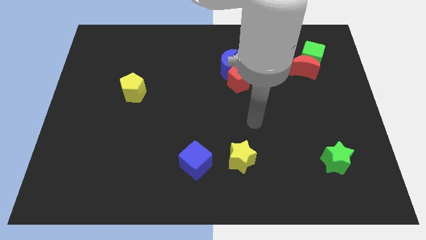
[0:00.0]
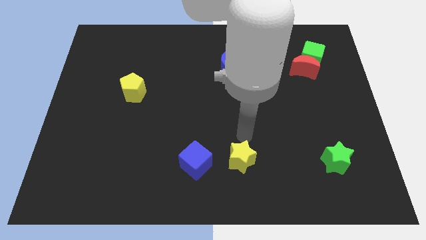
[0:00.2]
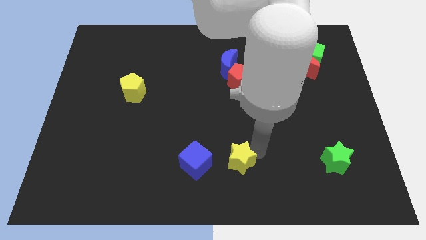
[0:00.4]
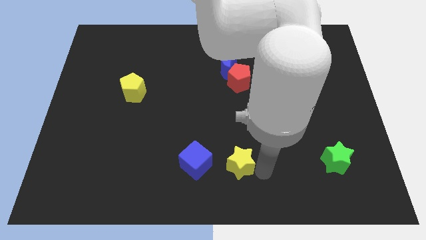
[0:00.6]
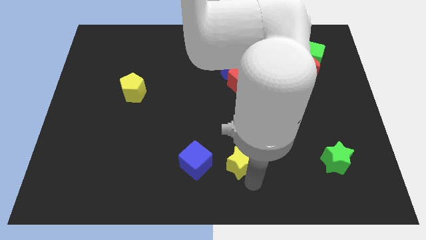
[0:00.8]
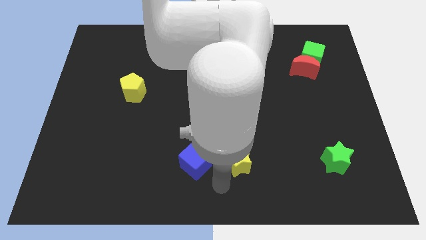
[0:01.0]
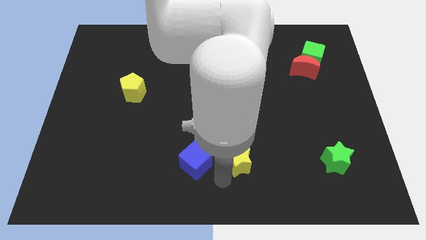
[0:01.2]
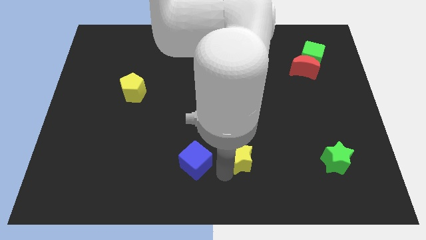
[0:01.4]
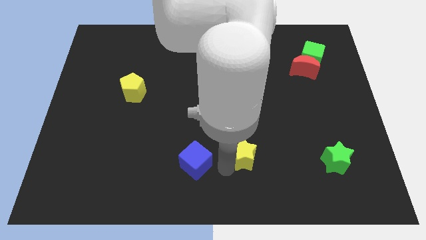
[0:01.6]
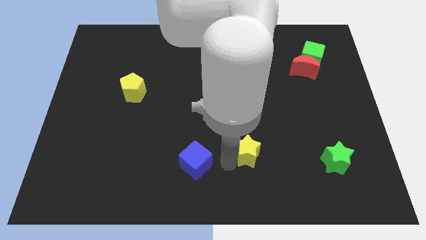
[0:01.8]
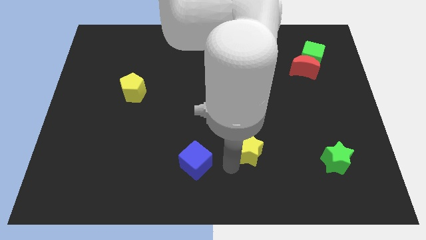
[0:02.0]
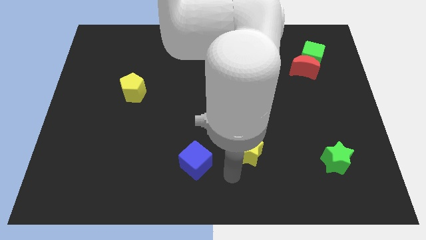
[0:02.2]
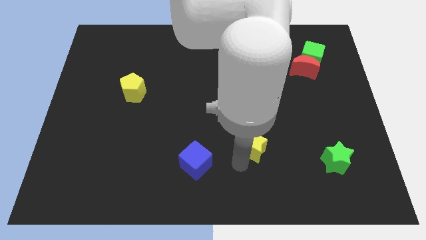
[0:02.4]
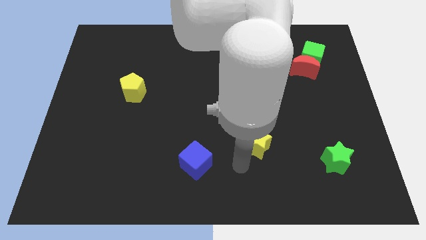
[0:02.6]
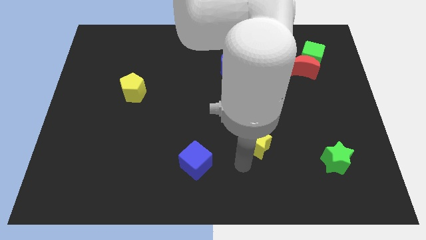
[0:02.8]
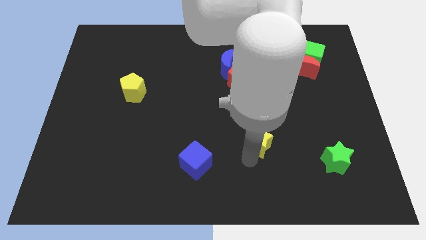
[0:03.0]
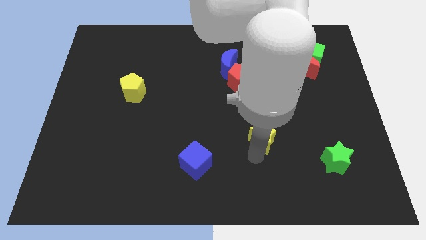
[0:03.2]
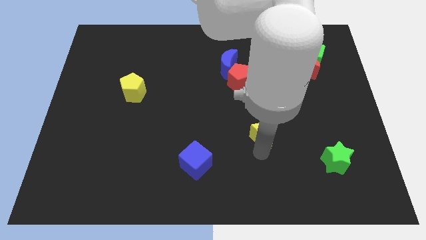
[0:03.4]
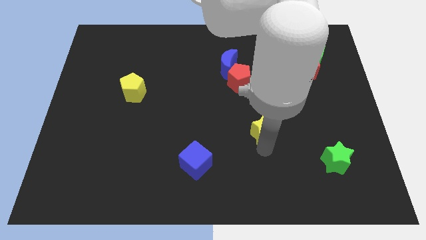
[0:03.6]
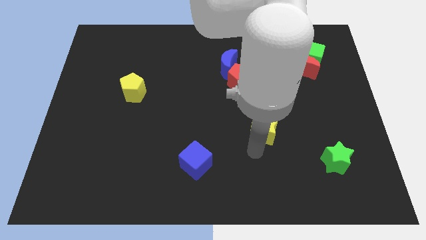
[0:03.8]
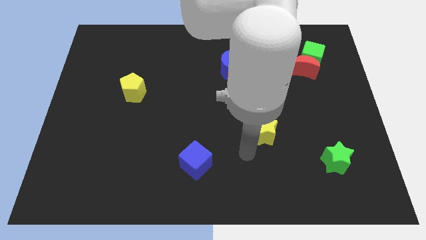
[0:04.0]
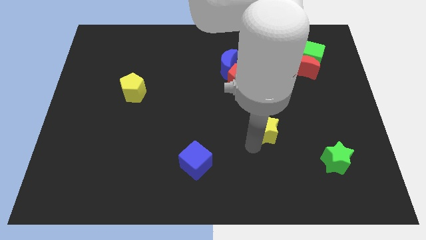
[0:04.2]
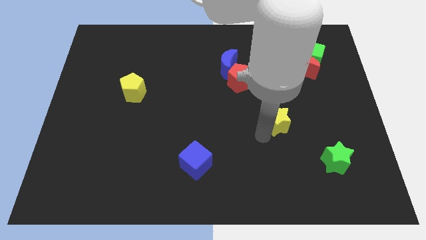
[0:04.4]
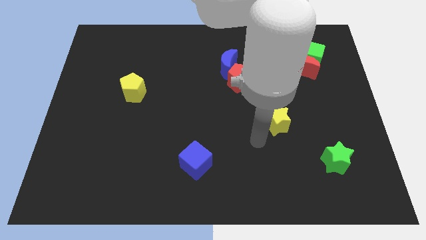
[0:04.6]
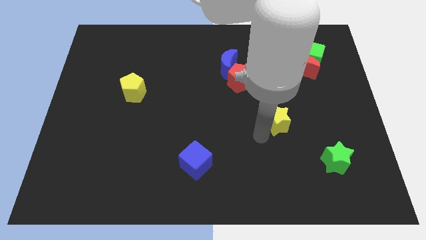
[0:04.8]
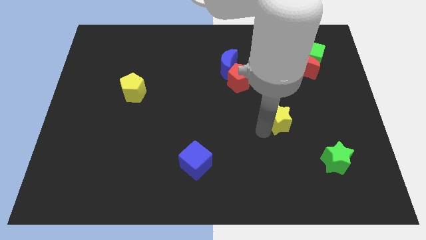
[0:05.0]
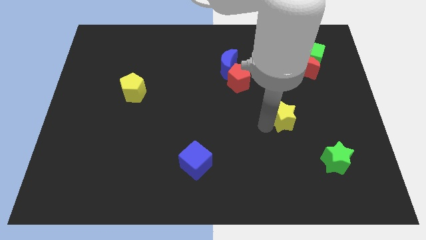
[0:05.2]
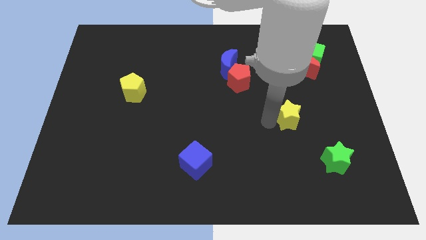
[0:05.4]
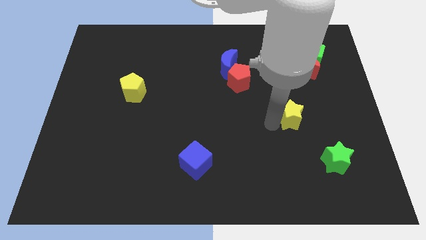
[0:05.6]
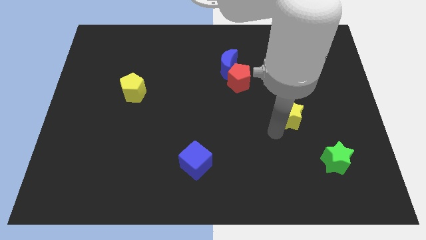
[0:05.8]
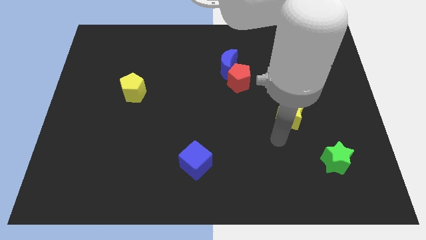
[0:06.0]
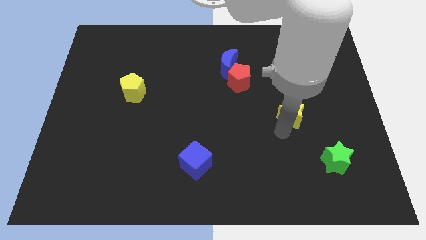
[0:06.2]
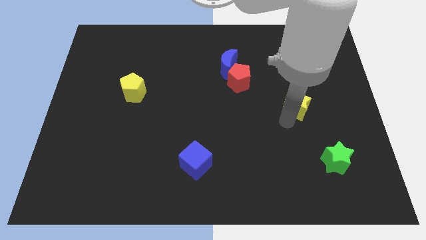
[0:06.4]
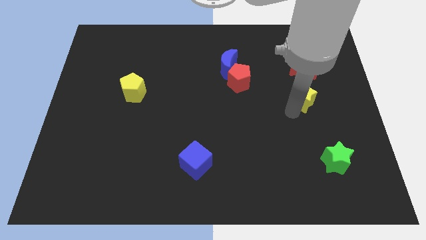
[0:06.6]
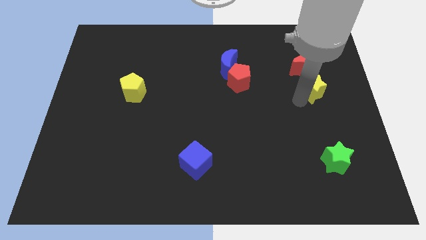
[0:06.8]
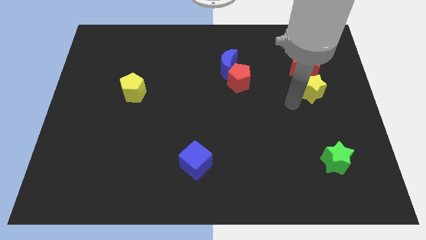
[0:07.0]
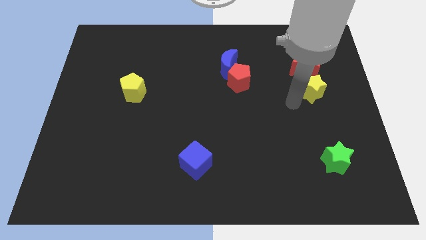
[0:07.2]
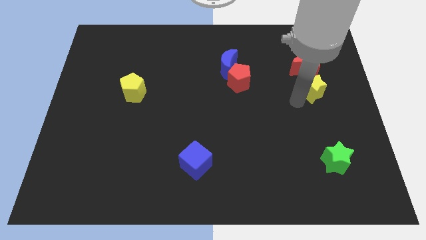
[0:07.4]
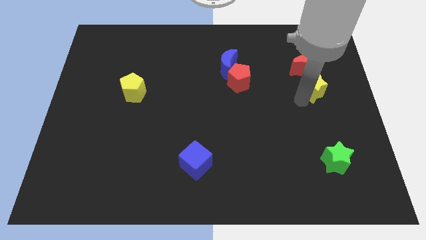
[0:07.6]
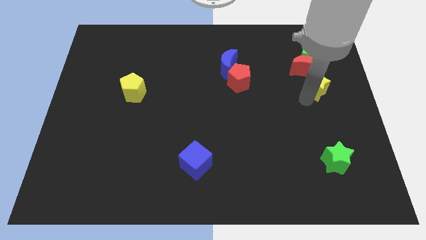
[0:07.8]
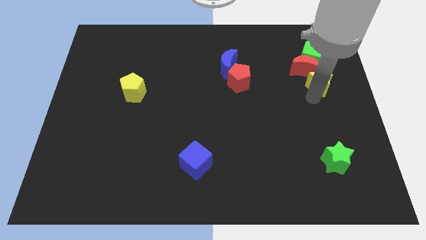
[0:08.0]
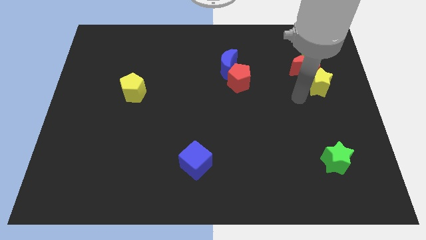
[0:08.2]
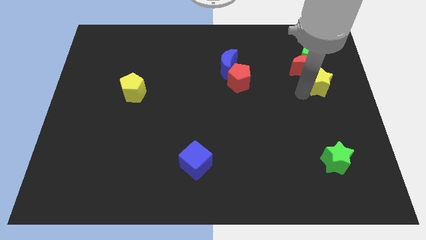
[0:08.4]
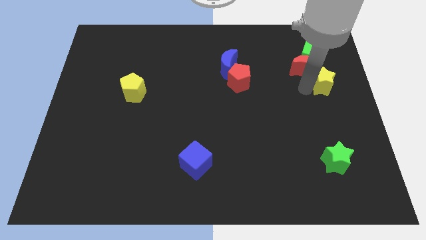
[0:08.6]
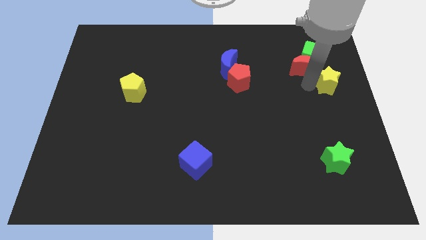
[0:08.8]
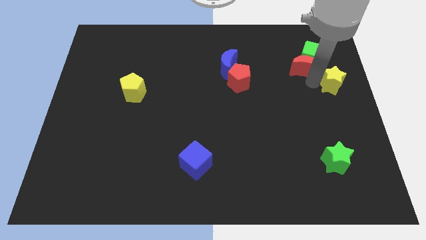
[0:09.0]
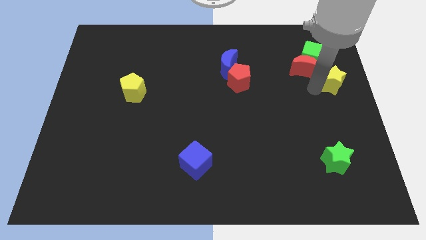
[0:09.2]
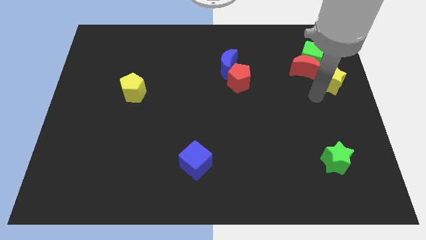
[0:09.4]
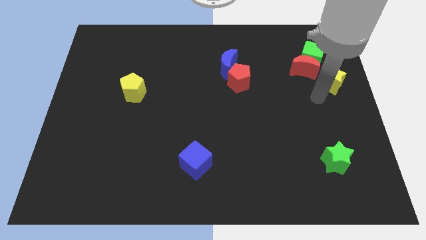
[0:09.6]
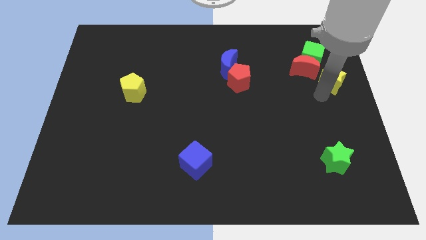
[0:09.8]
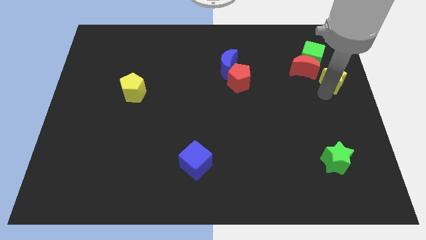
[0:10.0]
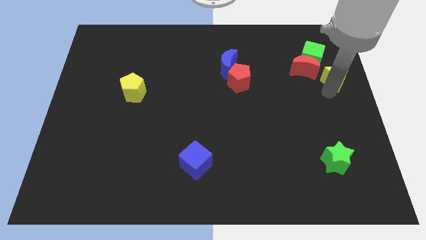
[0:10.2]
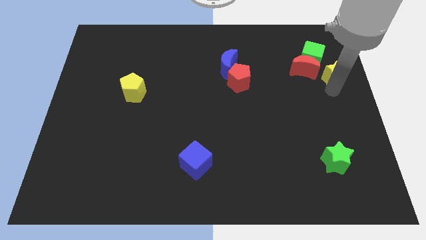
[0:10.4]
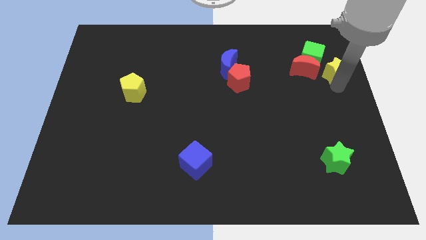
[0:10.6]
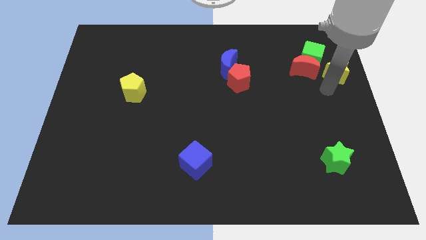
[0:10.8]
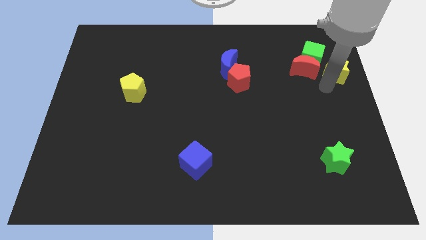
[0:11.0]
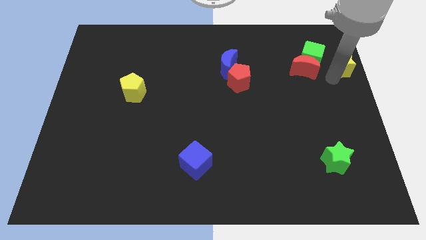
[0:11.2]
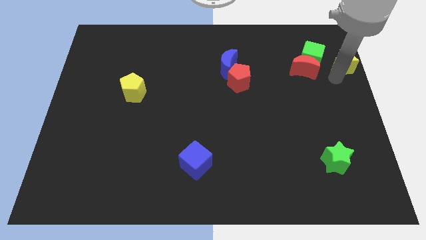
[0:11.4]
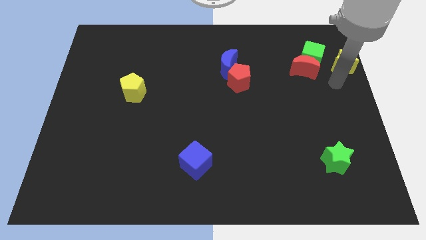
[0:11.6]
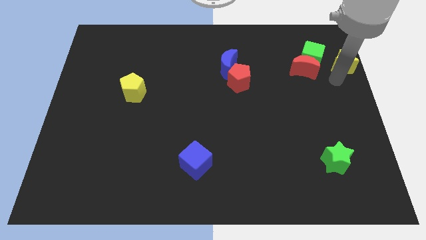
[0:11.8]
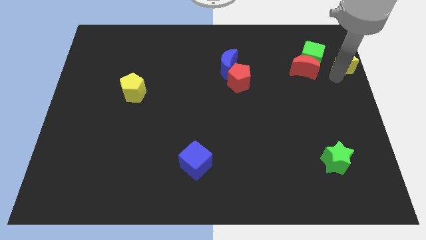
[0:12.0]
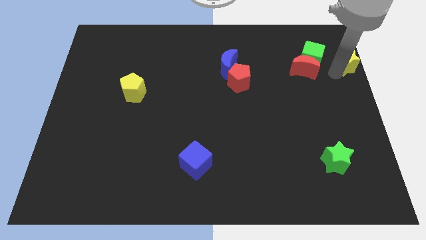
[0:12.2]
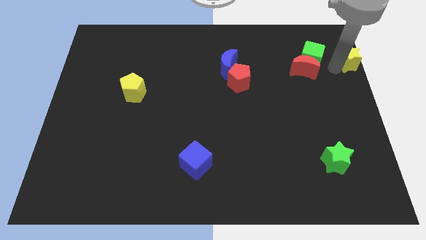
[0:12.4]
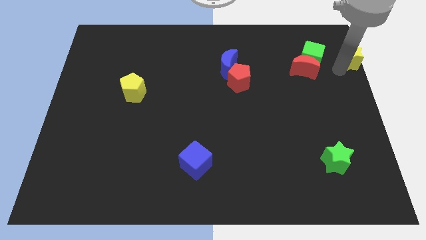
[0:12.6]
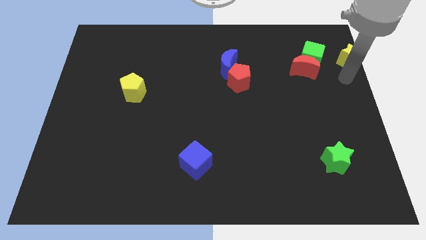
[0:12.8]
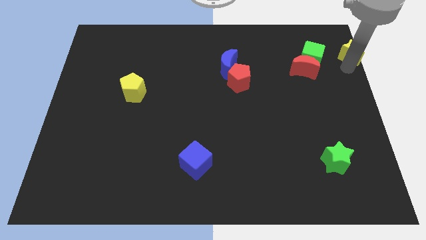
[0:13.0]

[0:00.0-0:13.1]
push the yellow star to the top right of the board
